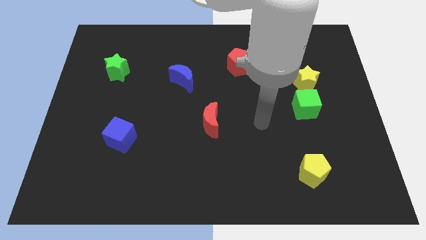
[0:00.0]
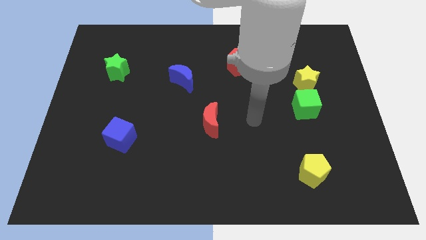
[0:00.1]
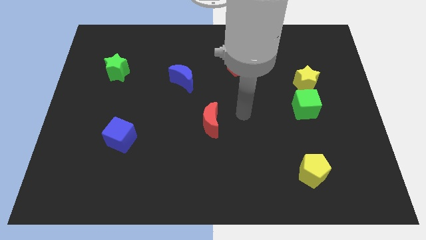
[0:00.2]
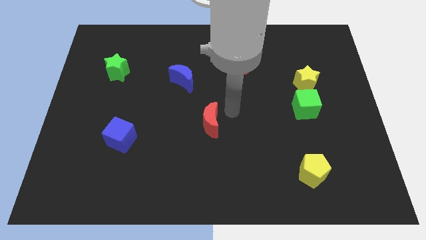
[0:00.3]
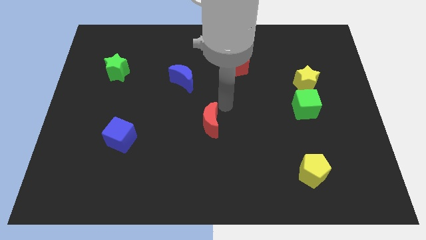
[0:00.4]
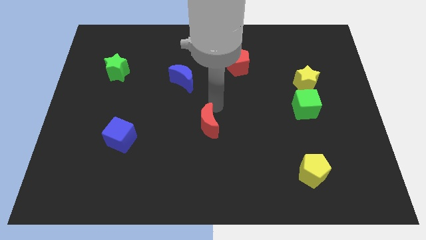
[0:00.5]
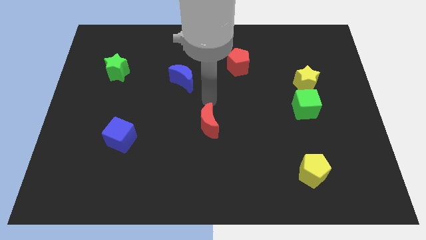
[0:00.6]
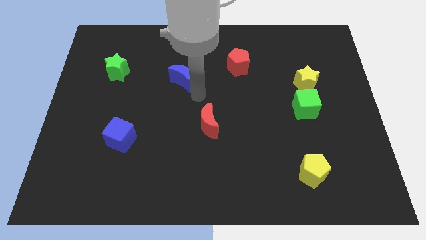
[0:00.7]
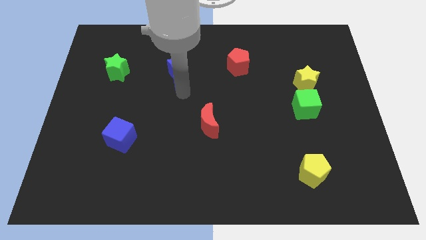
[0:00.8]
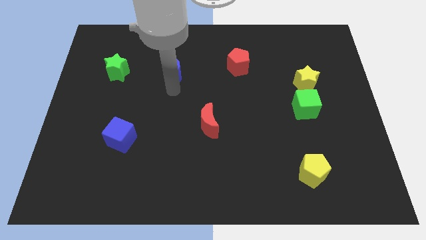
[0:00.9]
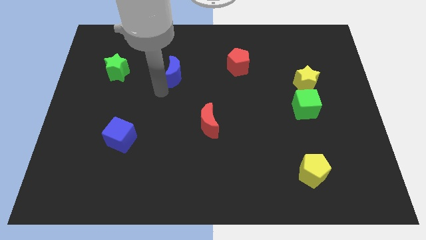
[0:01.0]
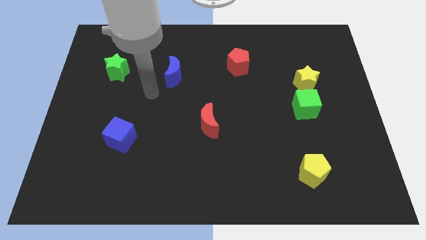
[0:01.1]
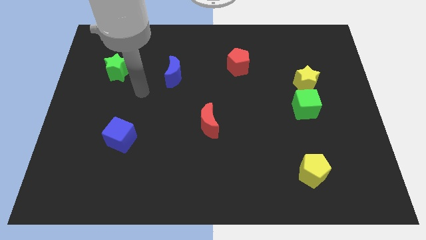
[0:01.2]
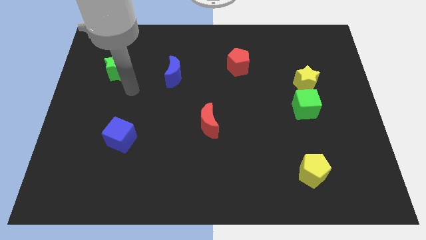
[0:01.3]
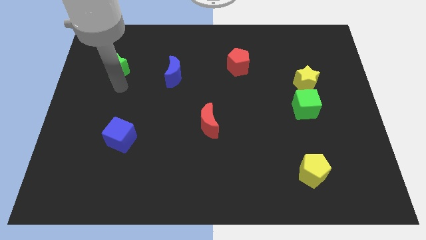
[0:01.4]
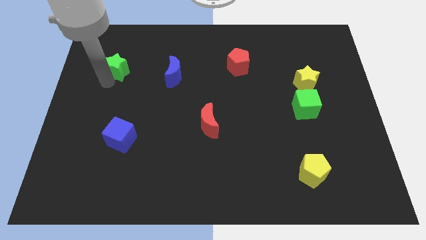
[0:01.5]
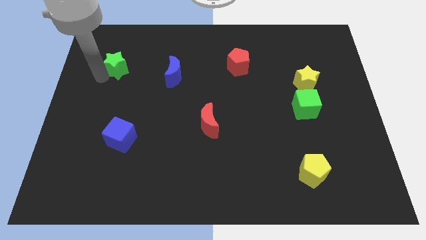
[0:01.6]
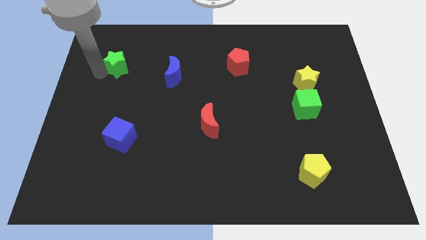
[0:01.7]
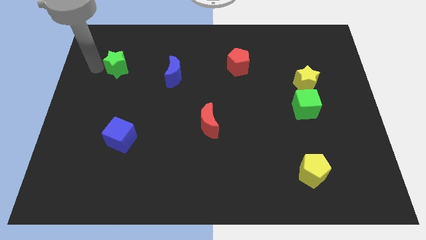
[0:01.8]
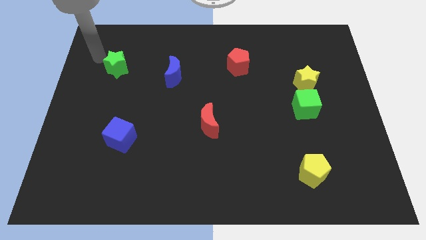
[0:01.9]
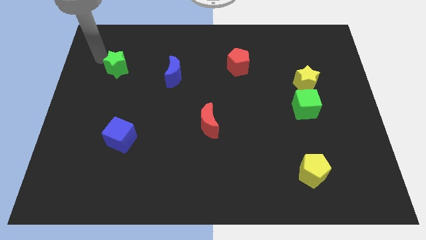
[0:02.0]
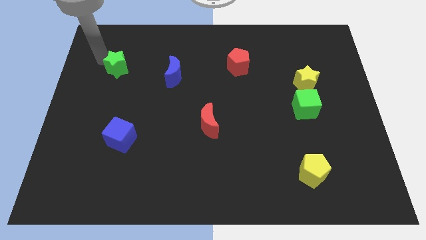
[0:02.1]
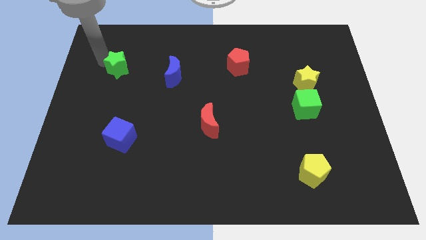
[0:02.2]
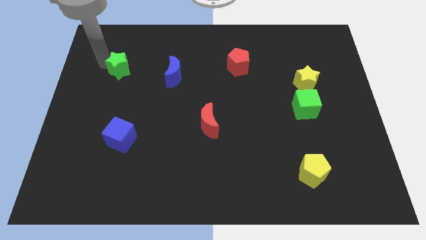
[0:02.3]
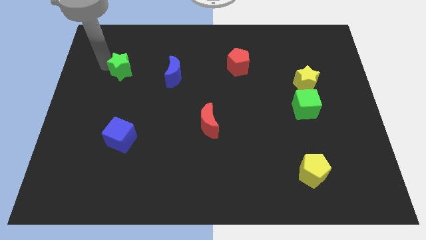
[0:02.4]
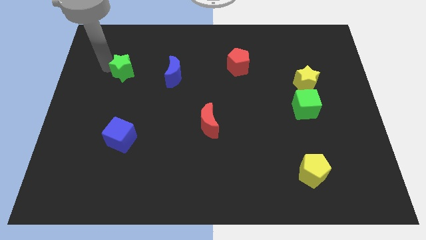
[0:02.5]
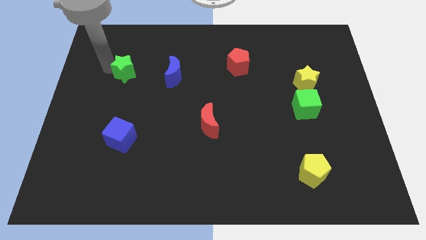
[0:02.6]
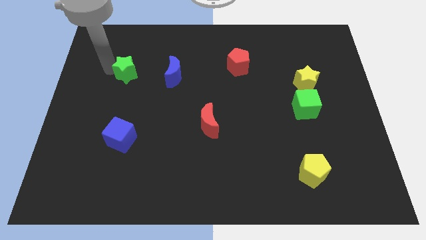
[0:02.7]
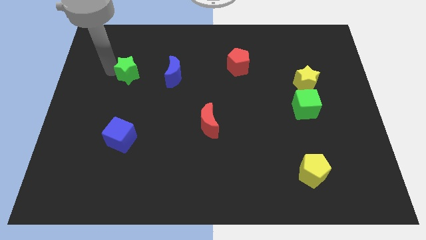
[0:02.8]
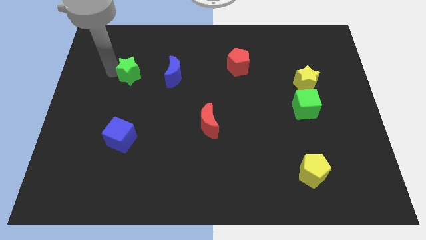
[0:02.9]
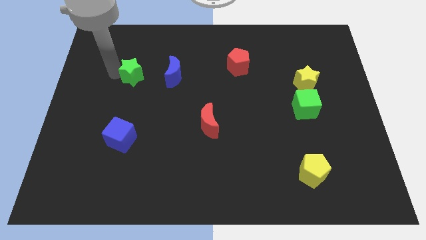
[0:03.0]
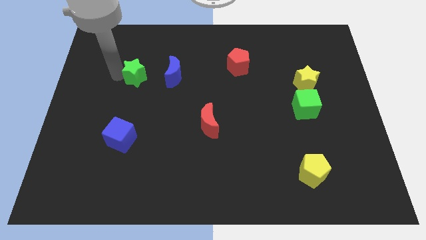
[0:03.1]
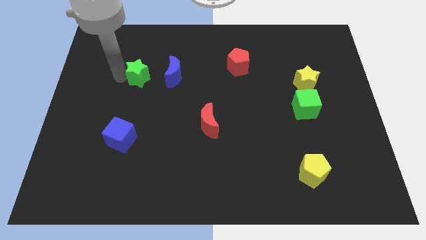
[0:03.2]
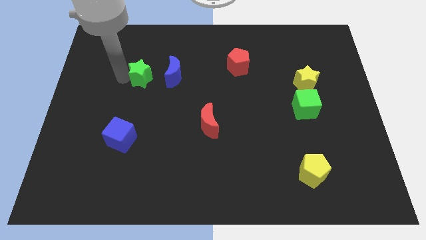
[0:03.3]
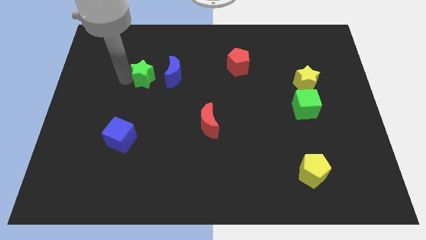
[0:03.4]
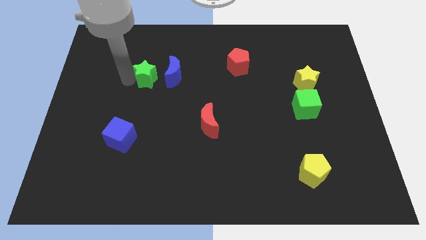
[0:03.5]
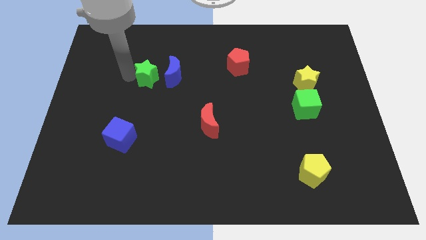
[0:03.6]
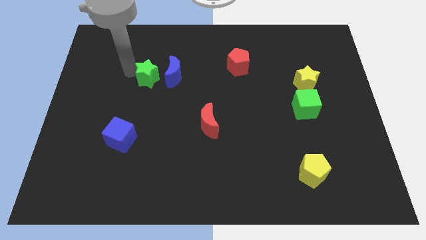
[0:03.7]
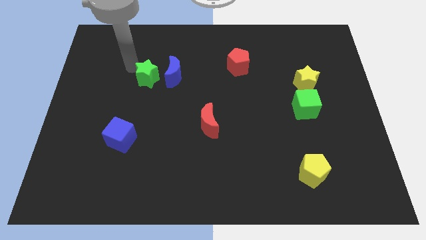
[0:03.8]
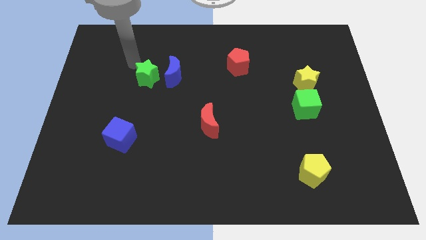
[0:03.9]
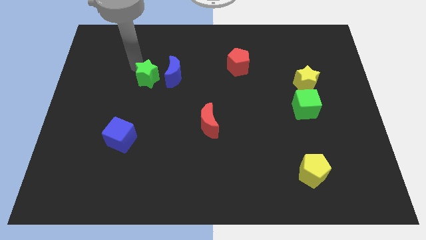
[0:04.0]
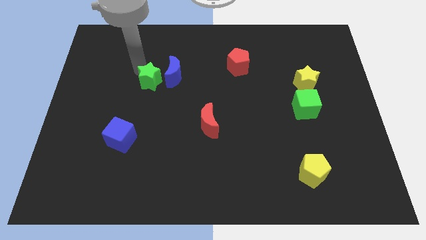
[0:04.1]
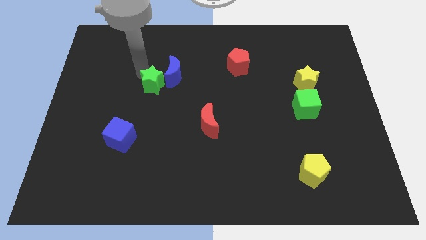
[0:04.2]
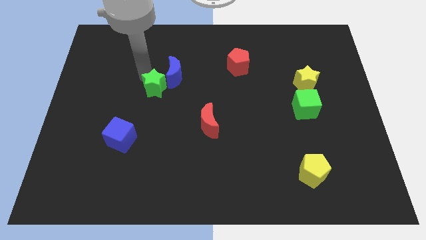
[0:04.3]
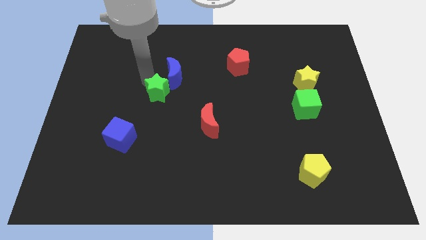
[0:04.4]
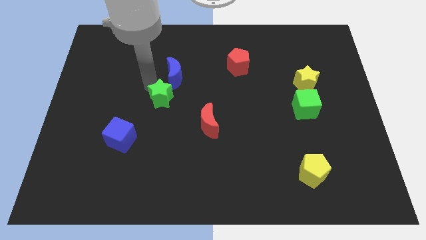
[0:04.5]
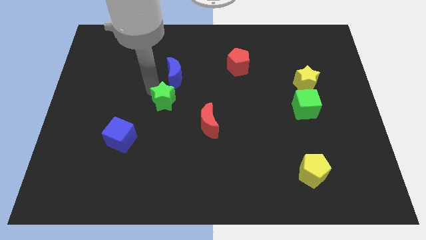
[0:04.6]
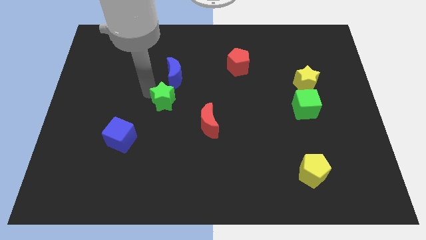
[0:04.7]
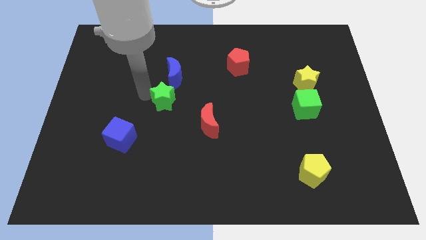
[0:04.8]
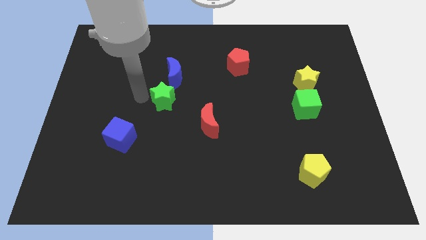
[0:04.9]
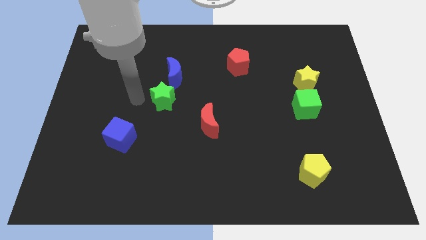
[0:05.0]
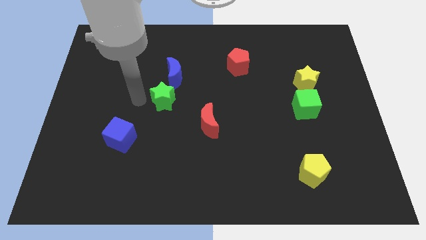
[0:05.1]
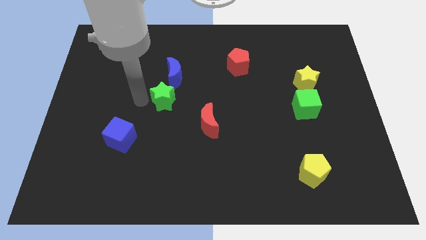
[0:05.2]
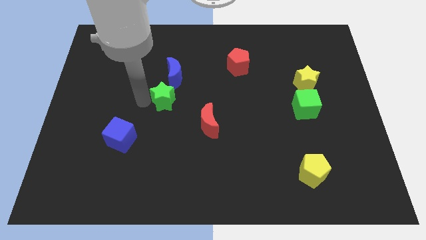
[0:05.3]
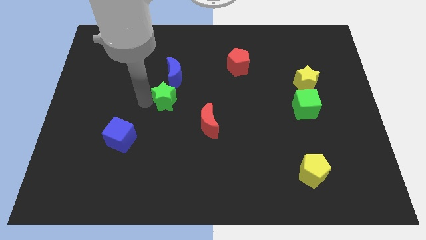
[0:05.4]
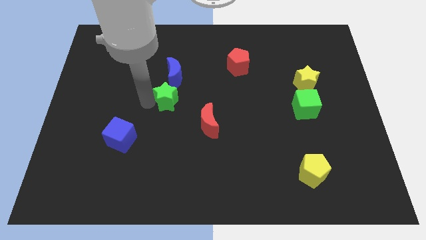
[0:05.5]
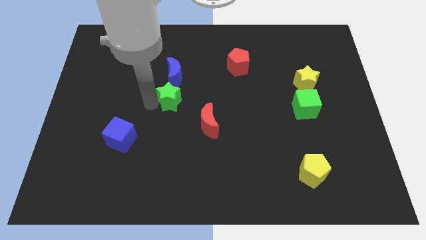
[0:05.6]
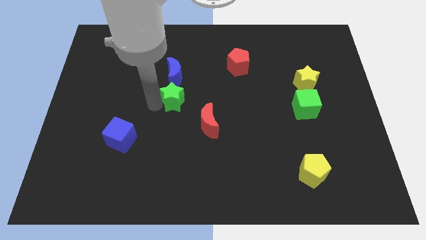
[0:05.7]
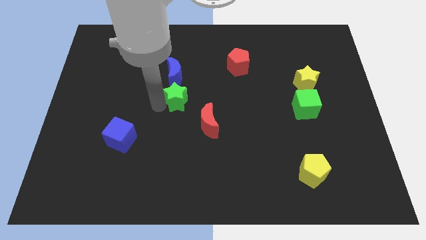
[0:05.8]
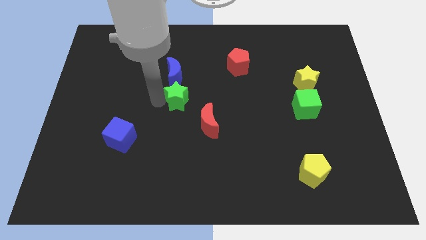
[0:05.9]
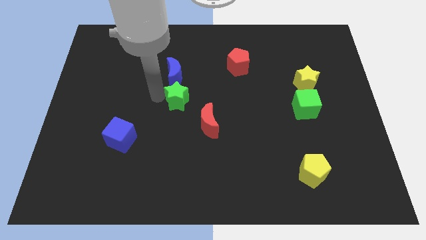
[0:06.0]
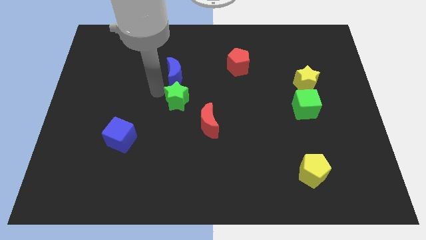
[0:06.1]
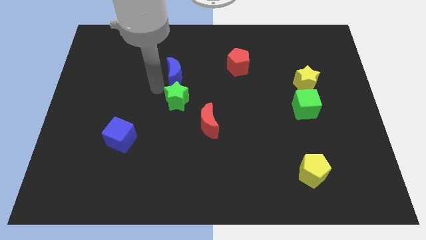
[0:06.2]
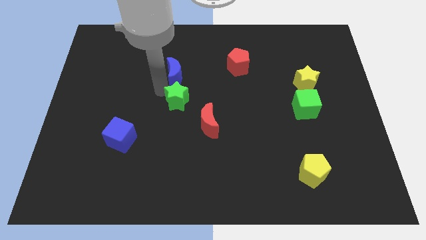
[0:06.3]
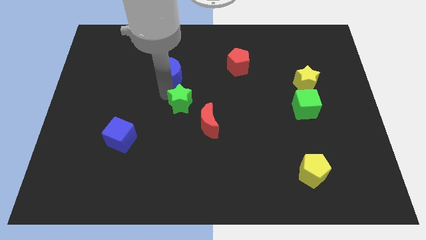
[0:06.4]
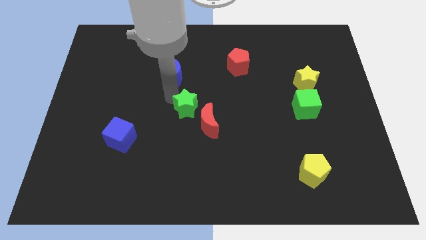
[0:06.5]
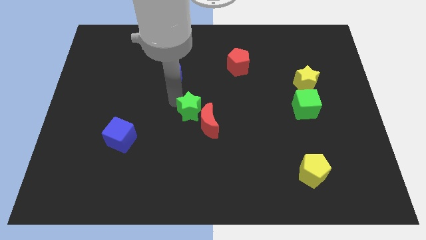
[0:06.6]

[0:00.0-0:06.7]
move the green star towards the red moon
